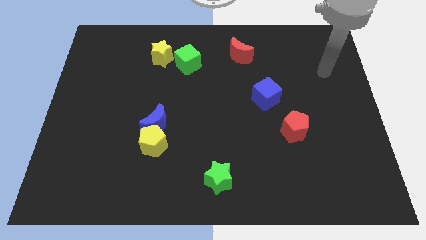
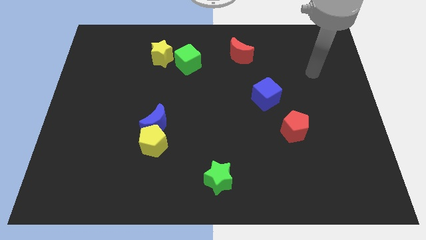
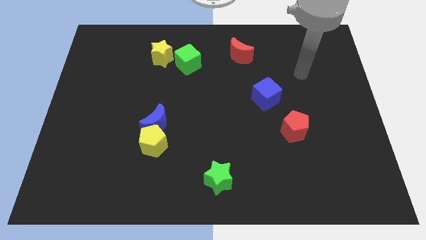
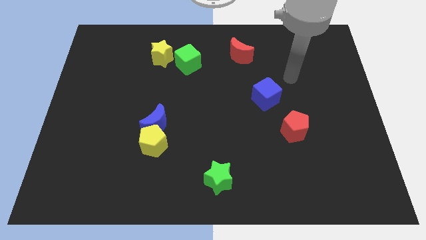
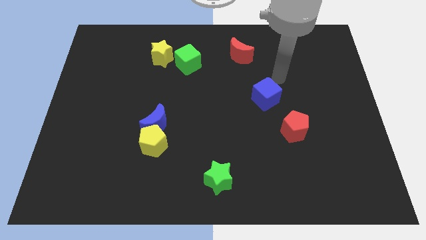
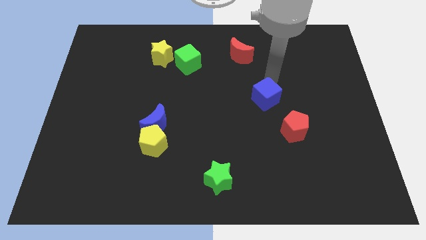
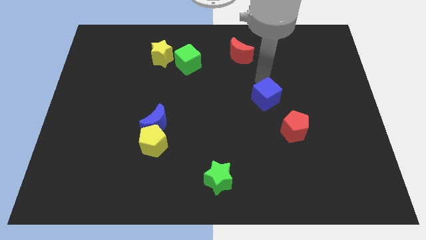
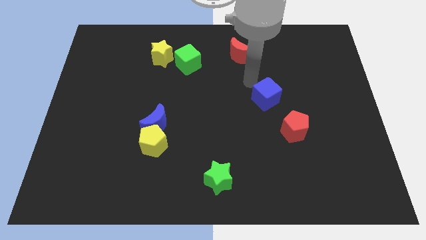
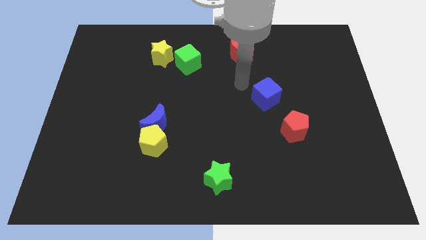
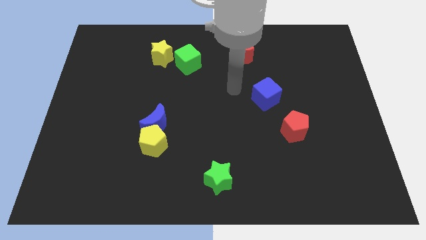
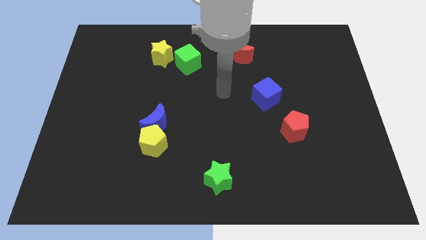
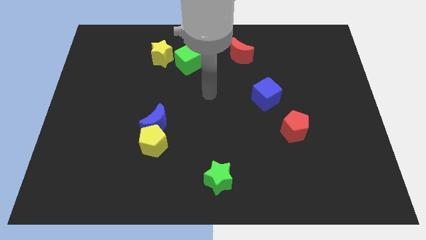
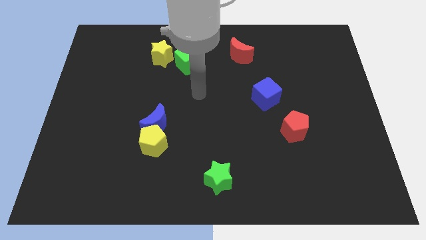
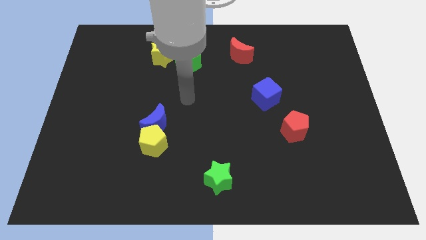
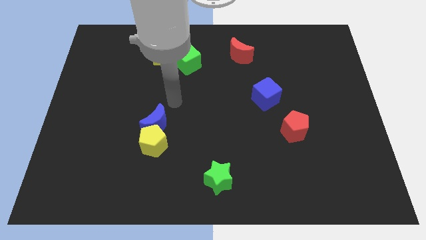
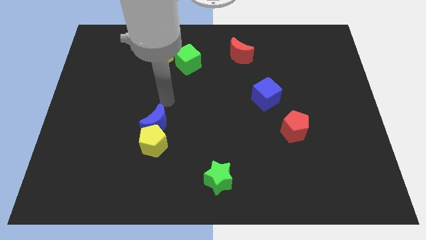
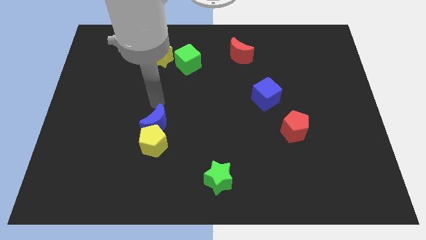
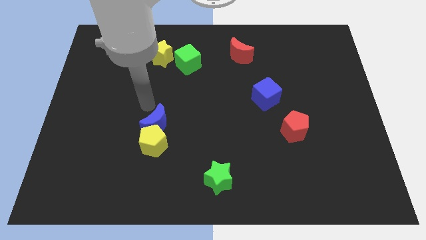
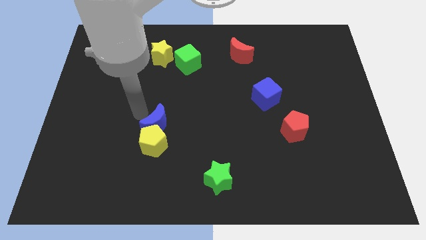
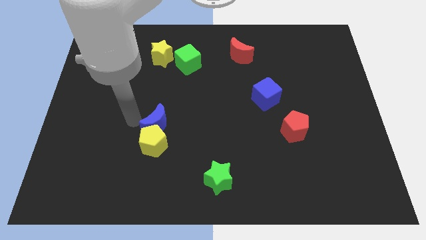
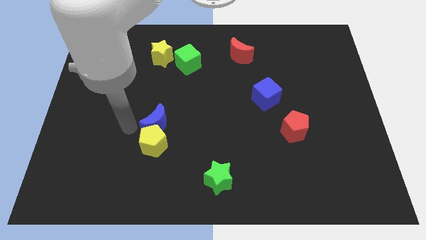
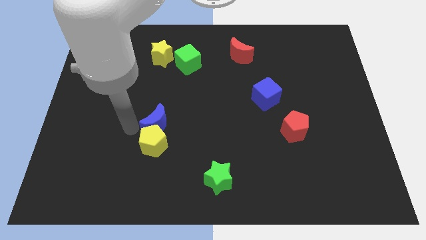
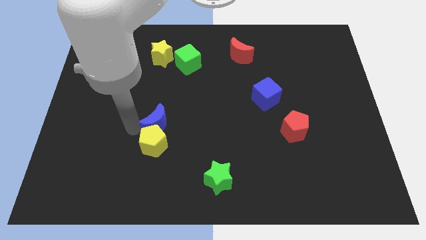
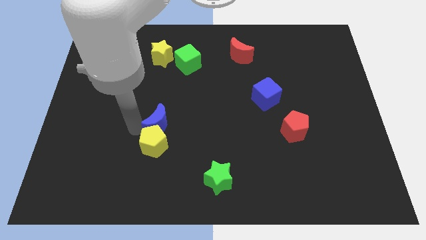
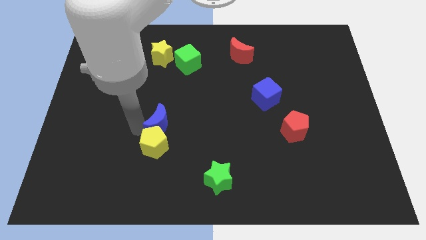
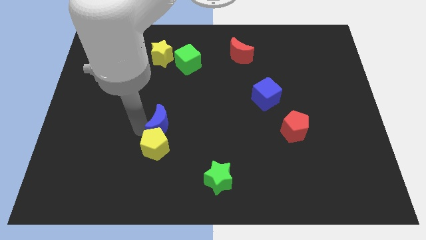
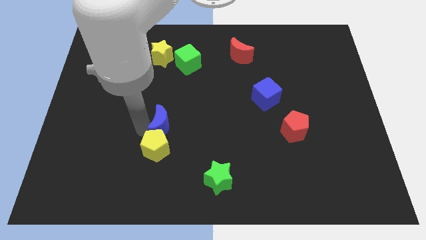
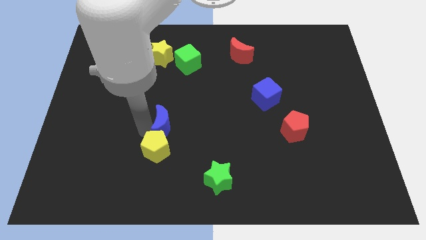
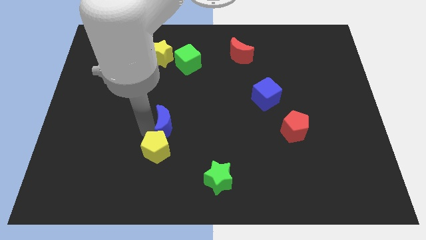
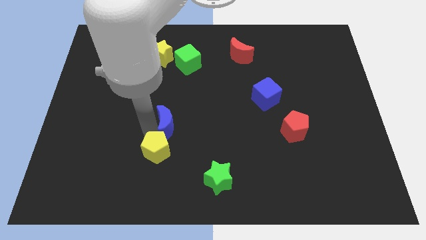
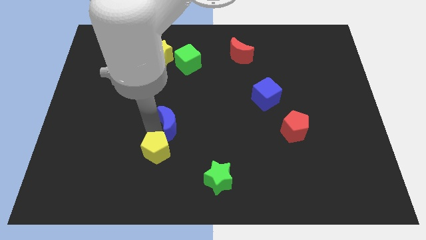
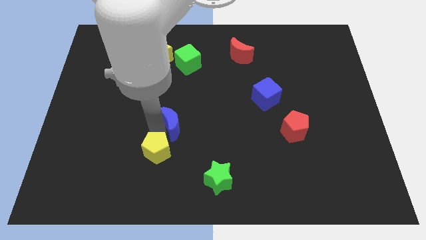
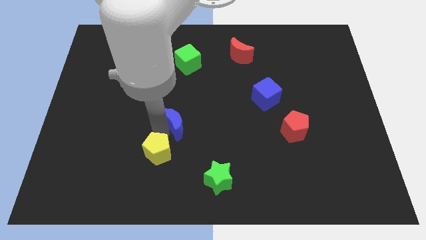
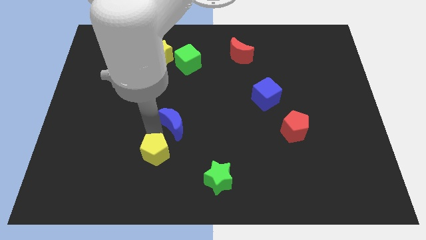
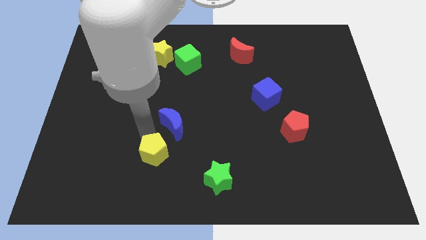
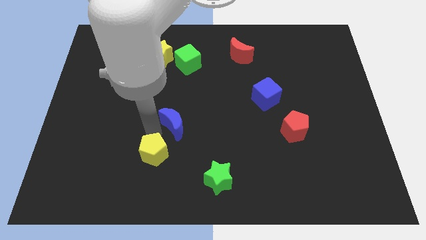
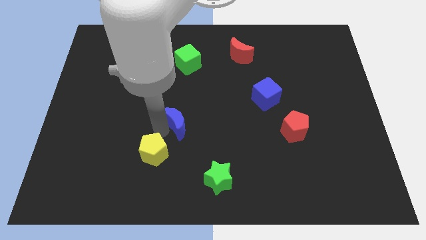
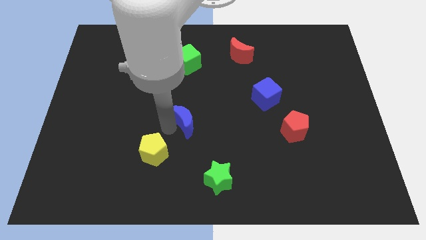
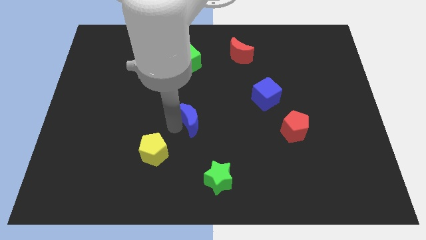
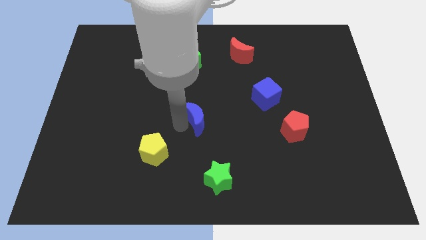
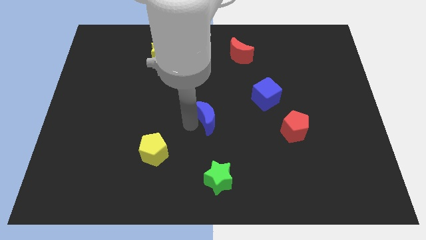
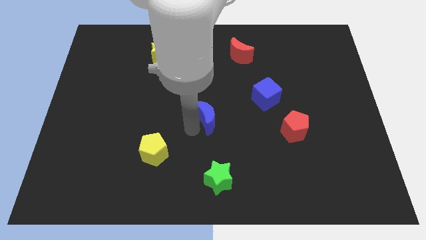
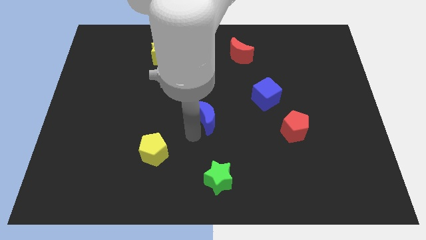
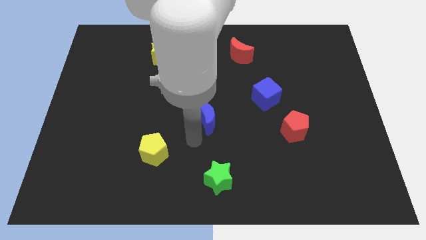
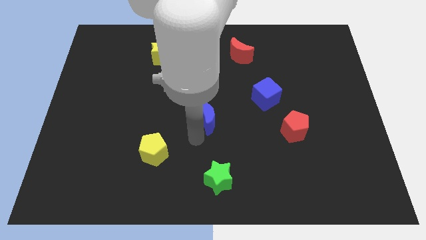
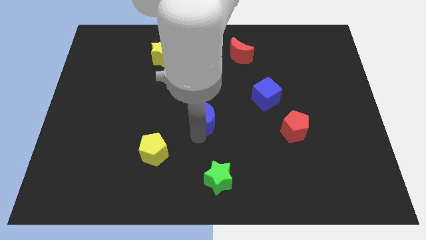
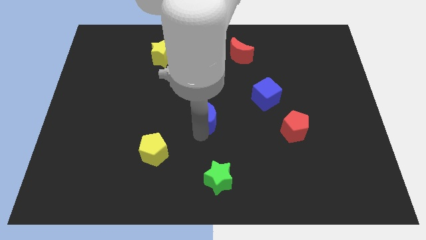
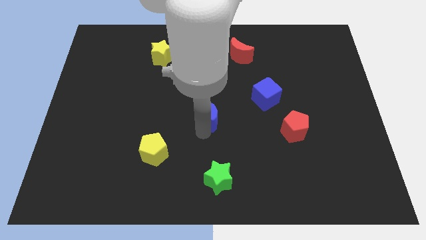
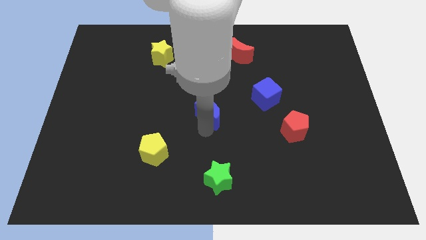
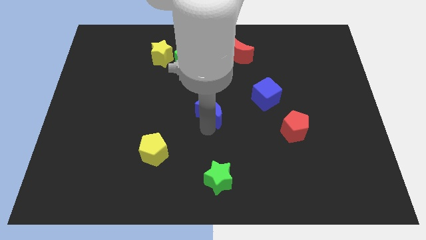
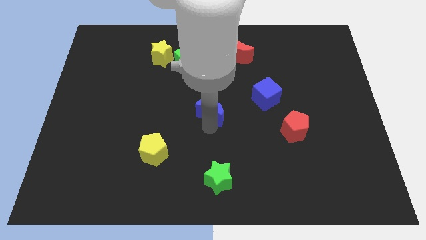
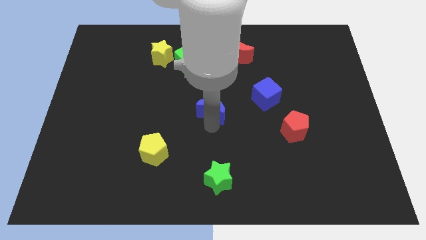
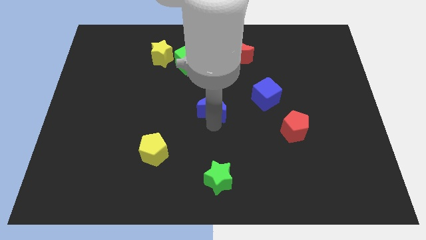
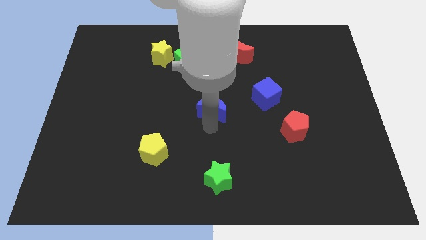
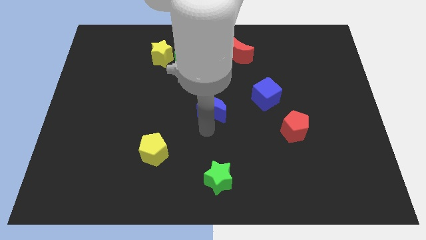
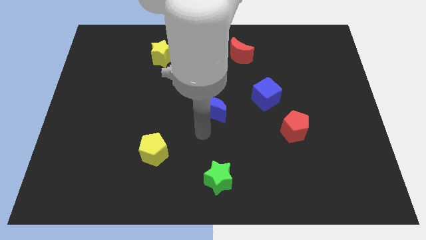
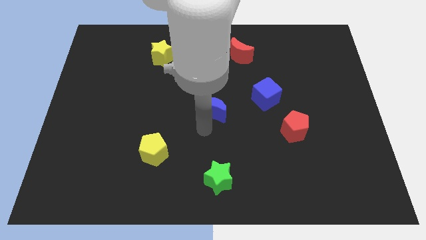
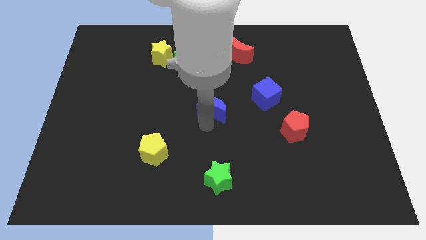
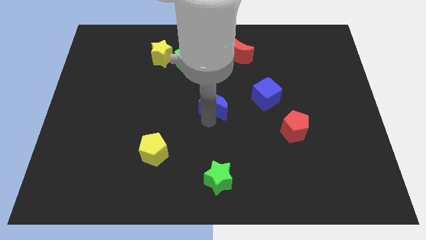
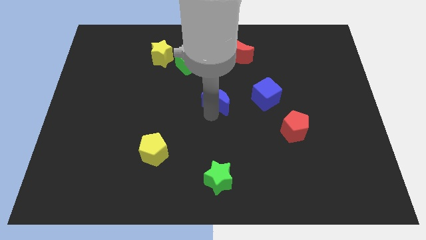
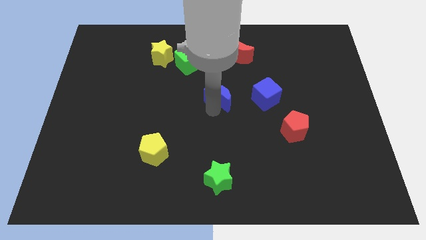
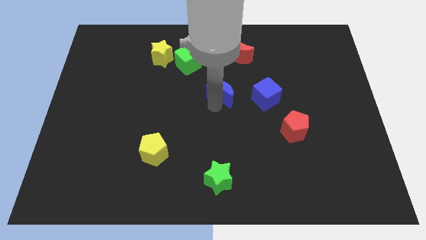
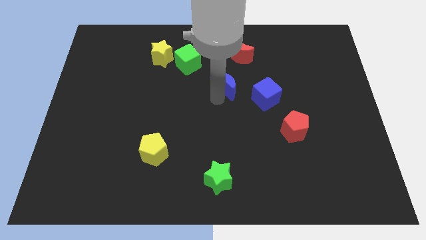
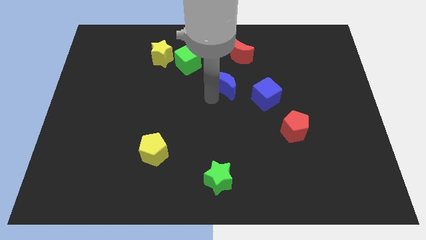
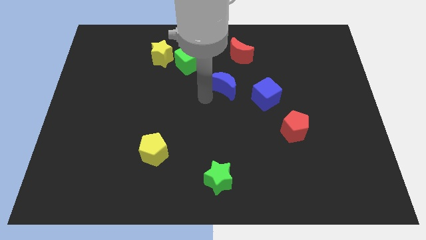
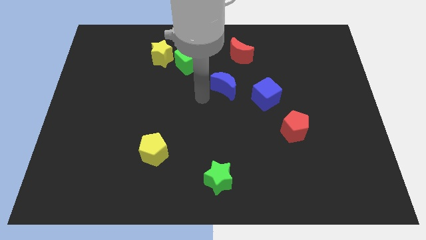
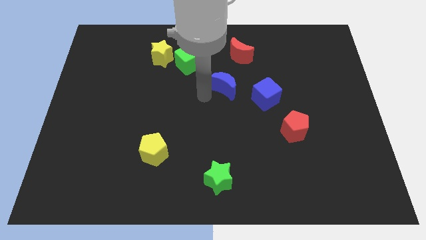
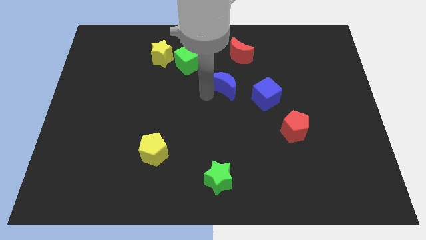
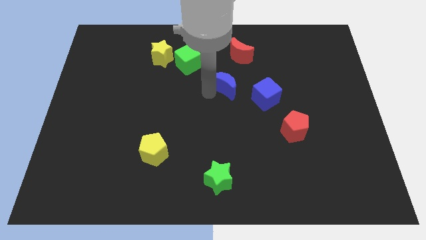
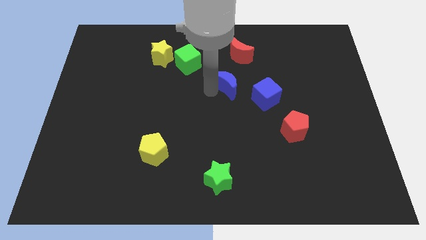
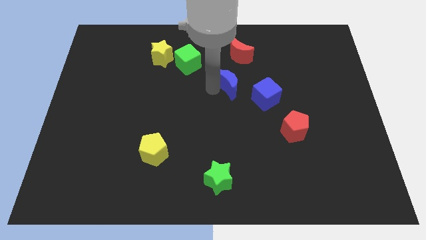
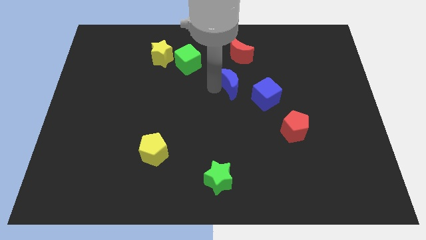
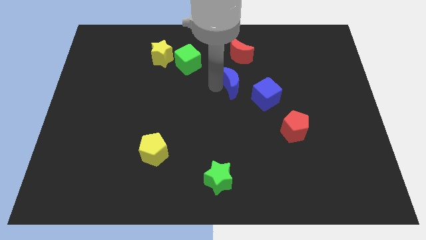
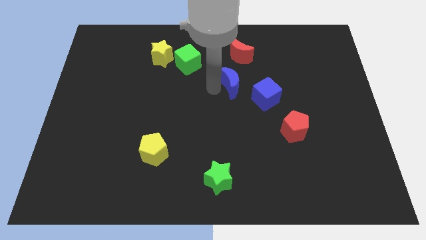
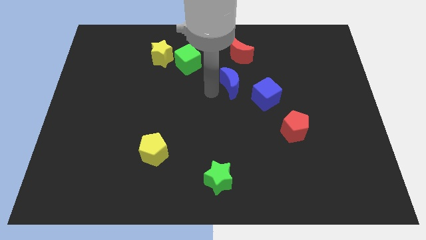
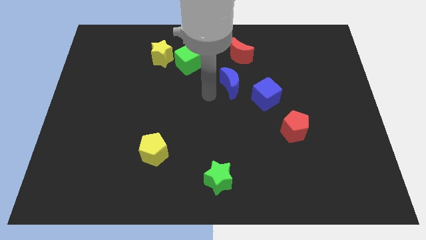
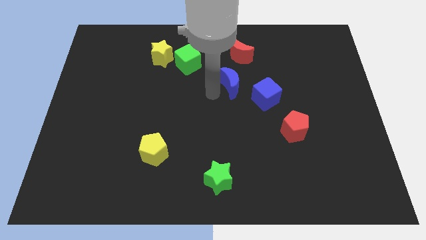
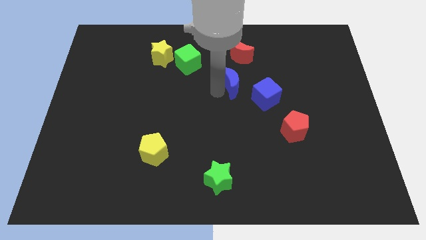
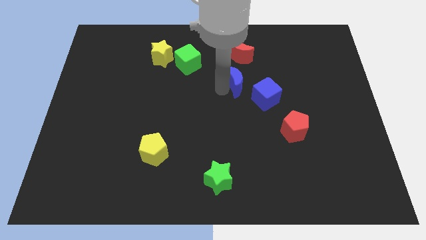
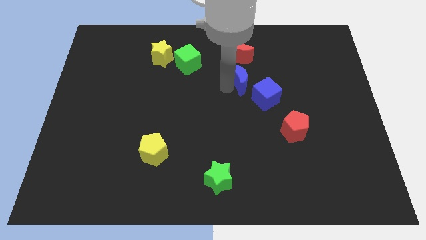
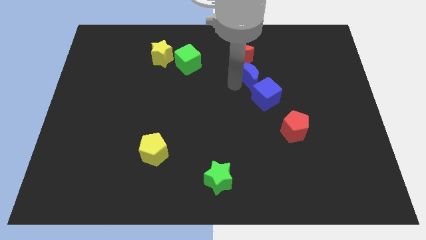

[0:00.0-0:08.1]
slide the blue moon to the top of the blue cube
